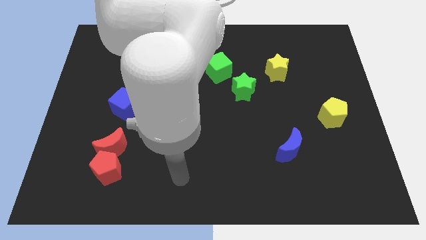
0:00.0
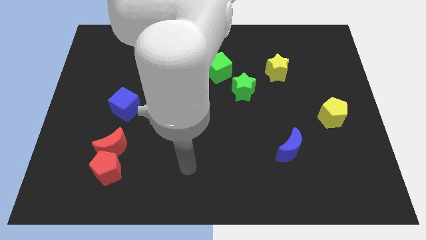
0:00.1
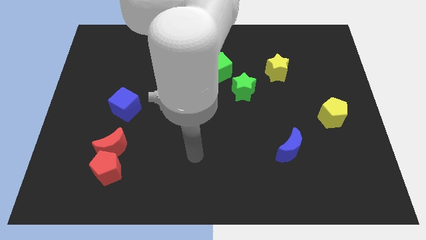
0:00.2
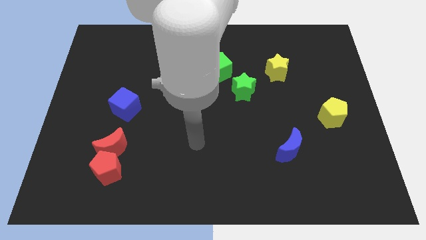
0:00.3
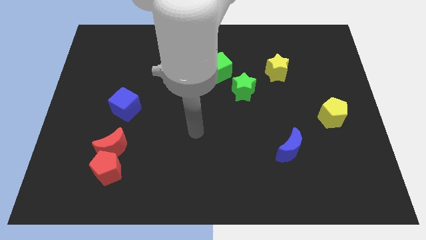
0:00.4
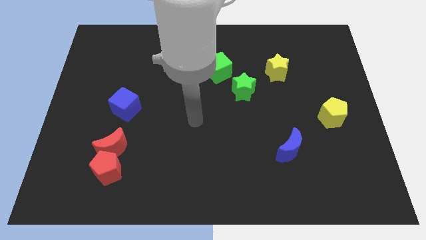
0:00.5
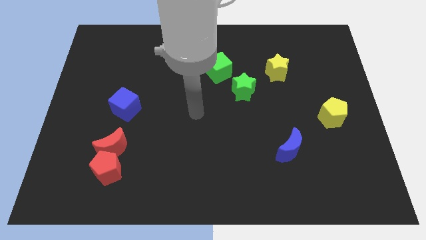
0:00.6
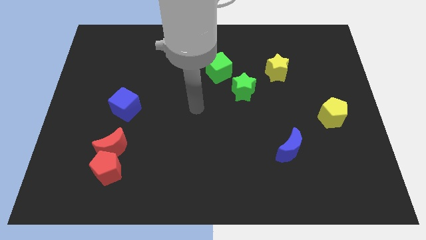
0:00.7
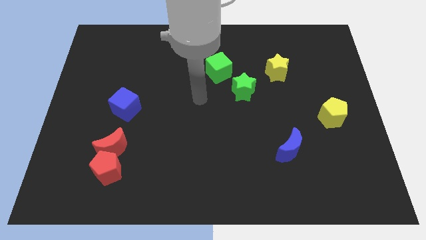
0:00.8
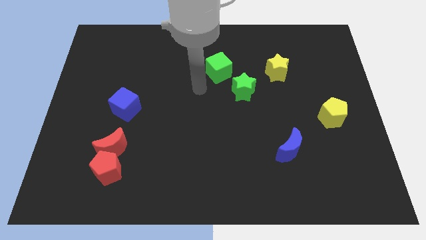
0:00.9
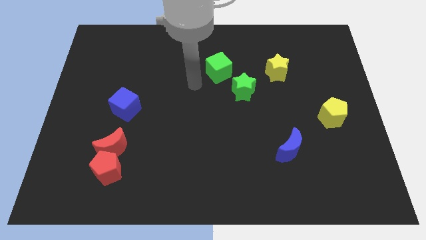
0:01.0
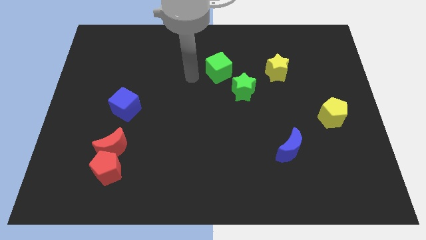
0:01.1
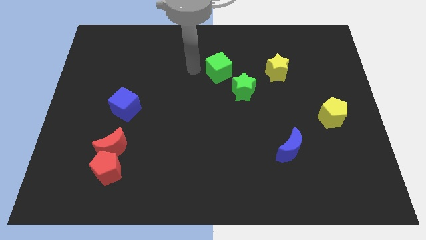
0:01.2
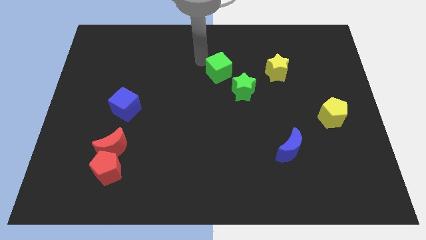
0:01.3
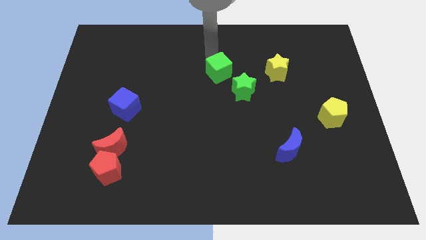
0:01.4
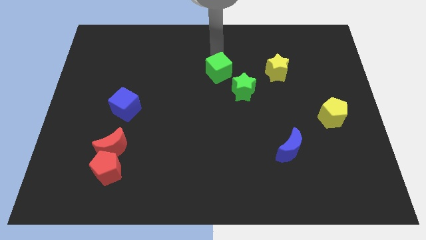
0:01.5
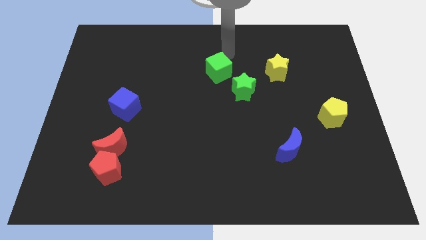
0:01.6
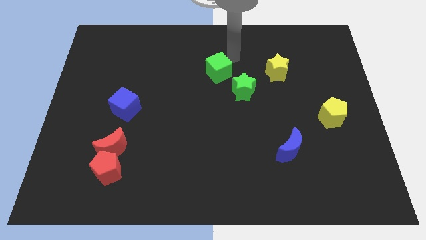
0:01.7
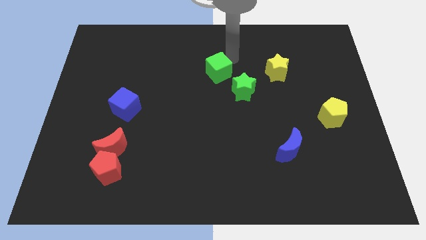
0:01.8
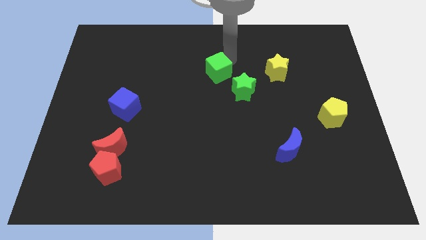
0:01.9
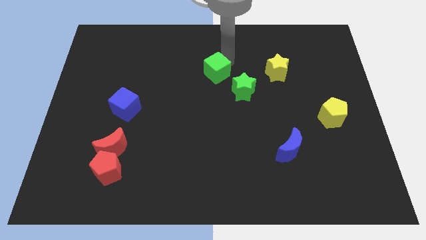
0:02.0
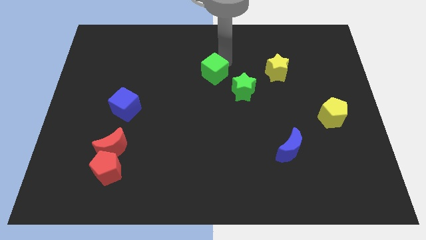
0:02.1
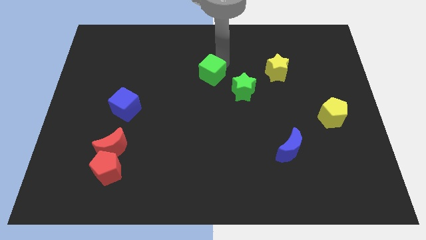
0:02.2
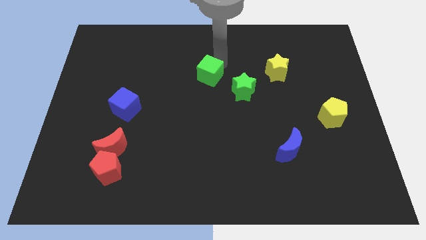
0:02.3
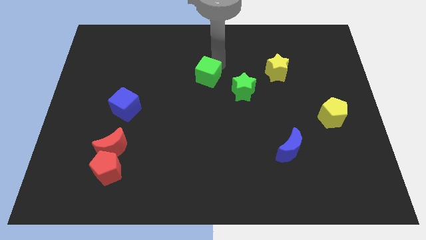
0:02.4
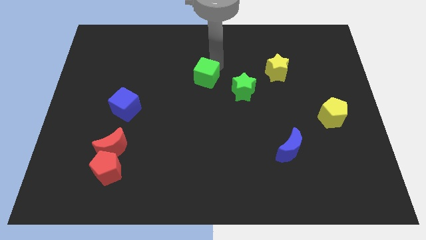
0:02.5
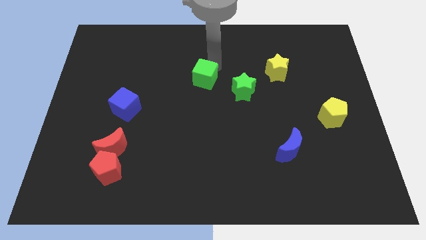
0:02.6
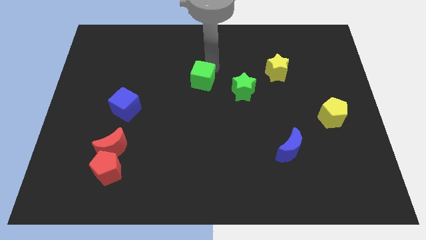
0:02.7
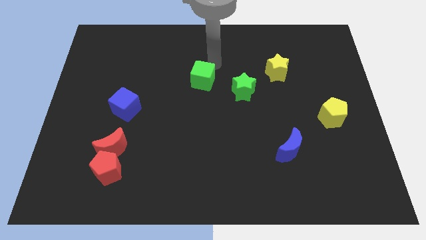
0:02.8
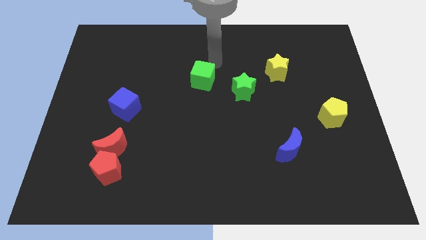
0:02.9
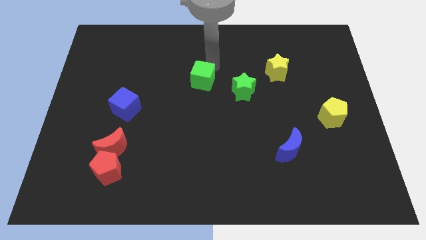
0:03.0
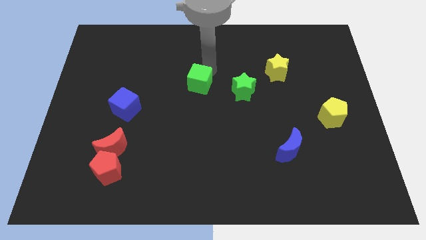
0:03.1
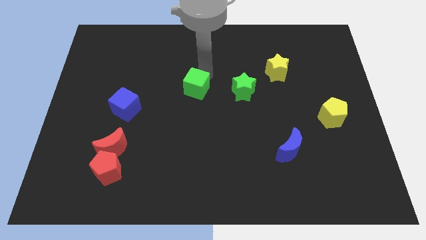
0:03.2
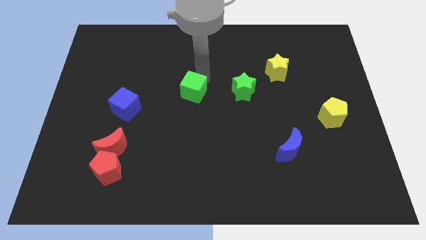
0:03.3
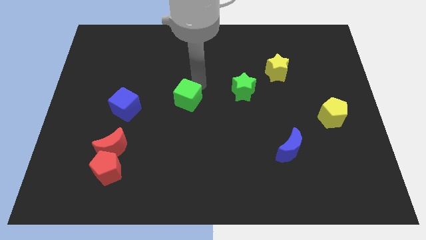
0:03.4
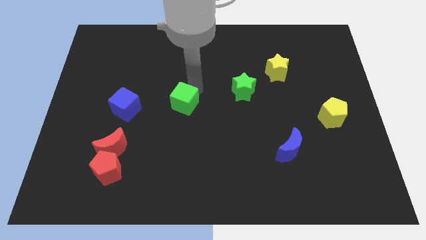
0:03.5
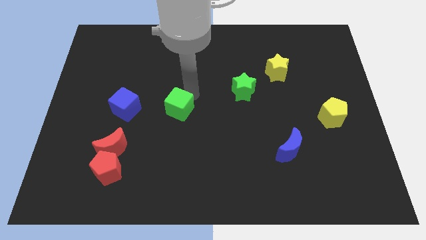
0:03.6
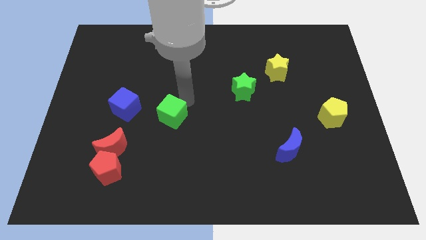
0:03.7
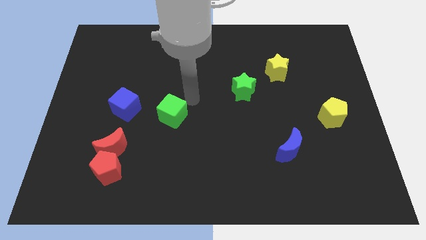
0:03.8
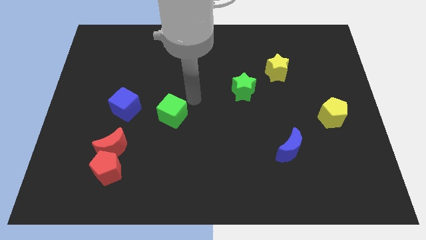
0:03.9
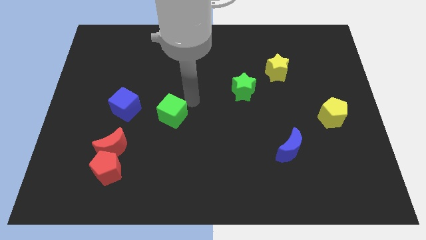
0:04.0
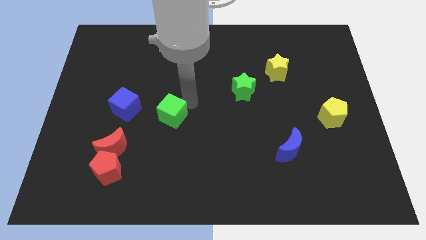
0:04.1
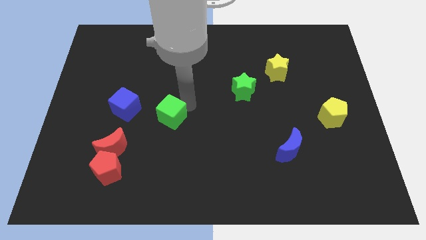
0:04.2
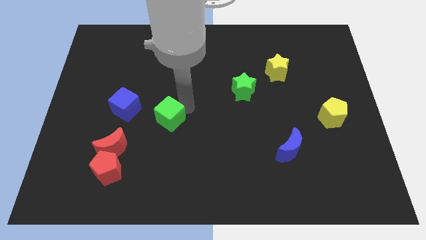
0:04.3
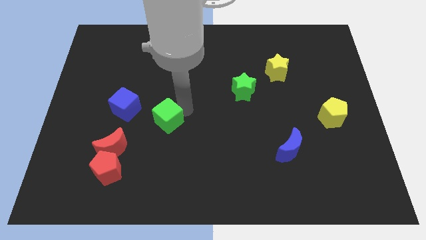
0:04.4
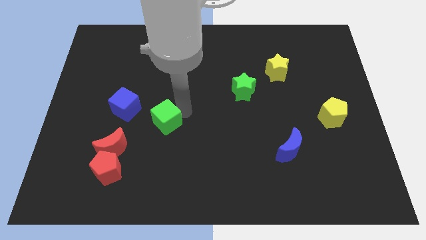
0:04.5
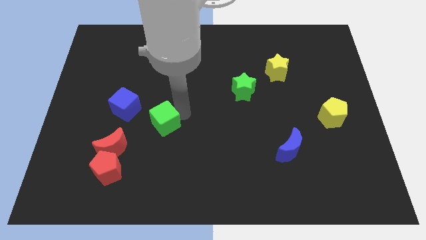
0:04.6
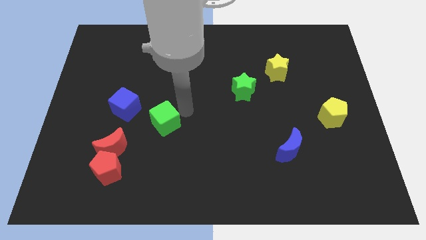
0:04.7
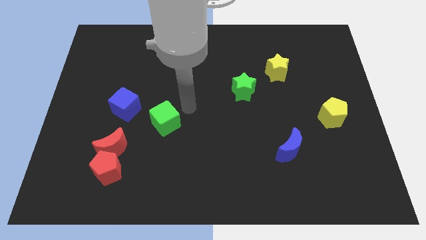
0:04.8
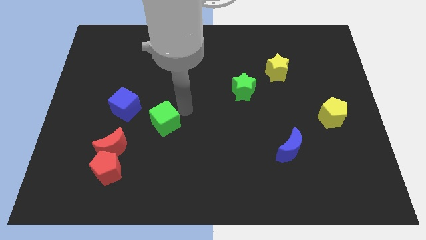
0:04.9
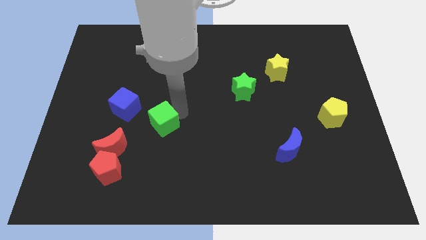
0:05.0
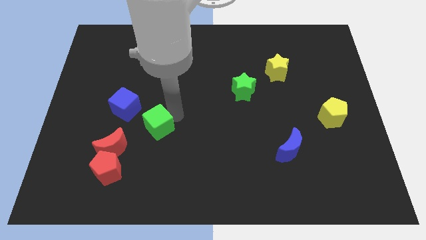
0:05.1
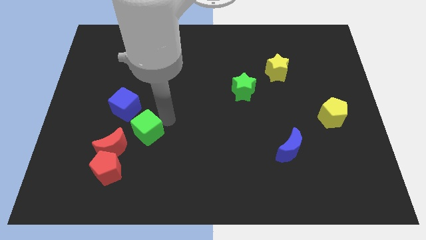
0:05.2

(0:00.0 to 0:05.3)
push the green cube to the top right side of the red pentagon

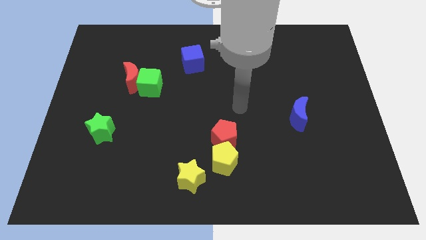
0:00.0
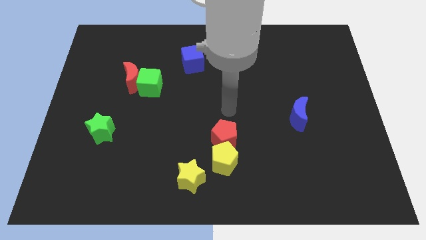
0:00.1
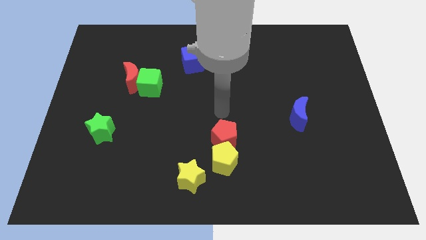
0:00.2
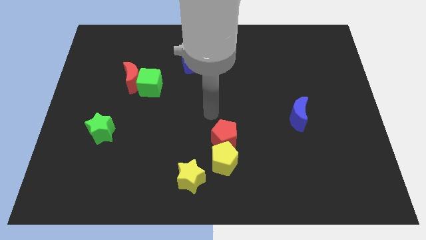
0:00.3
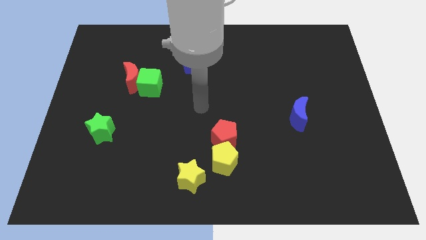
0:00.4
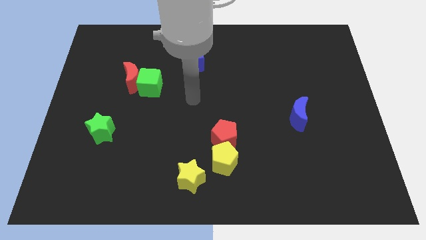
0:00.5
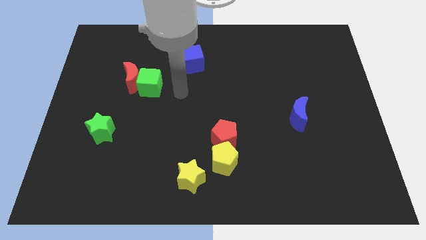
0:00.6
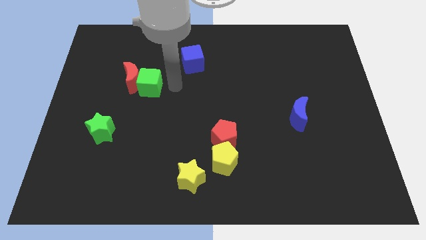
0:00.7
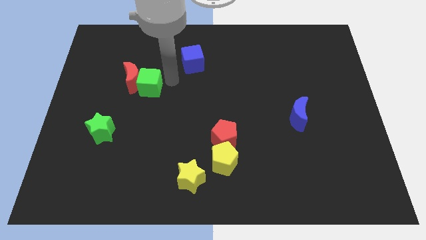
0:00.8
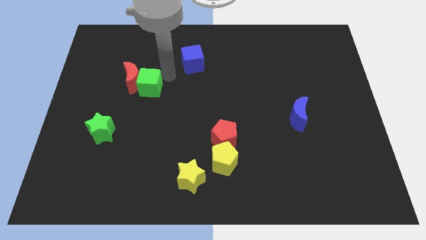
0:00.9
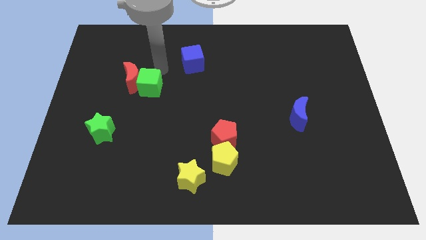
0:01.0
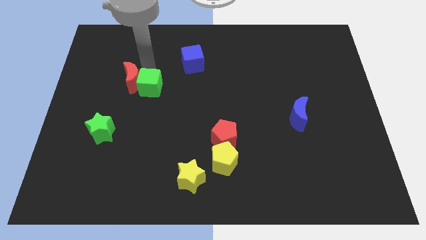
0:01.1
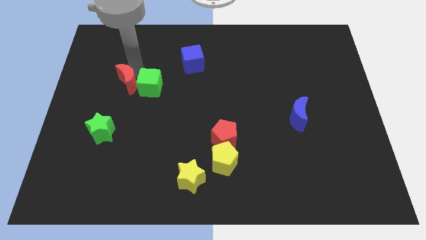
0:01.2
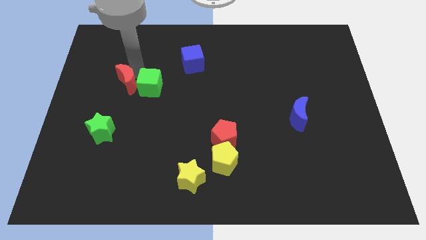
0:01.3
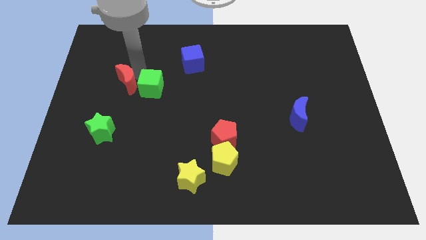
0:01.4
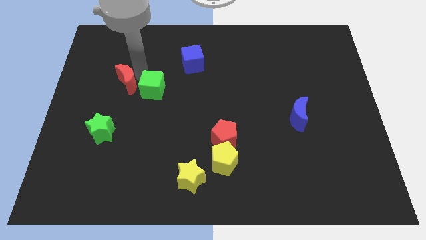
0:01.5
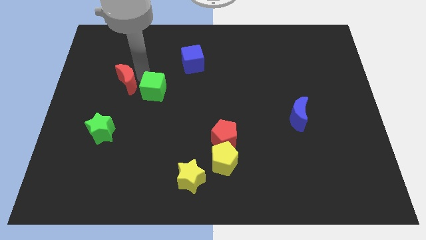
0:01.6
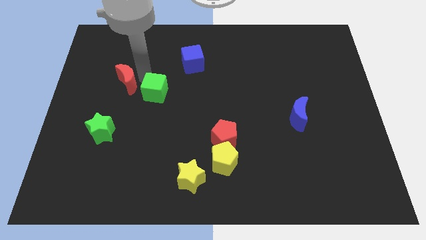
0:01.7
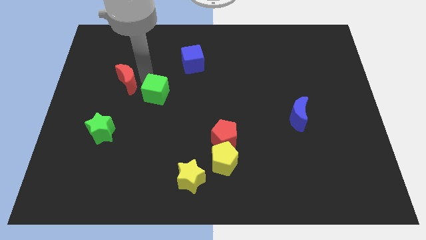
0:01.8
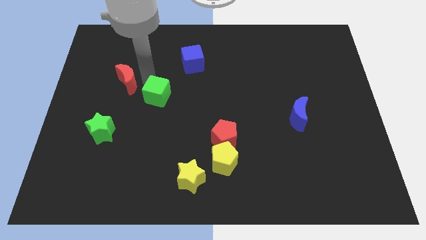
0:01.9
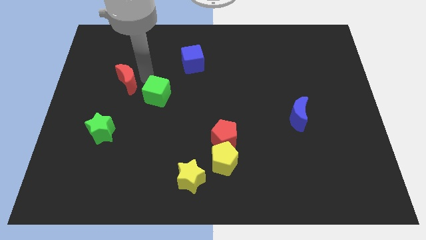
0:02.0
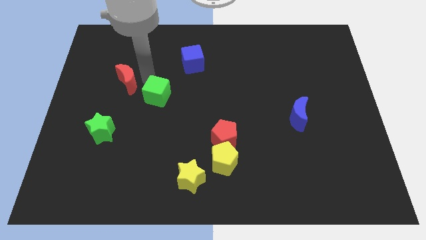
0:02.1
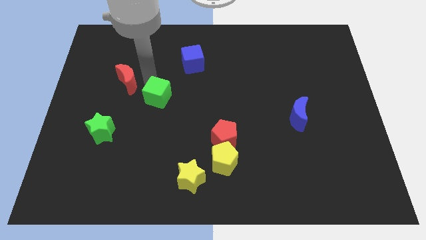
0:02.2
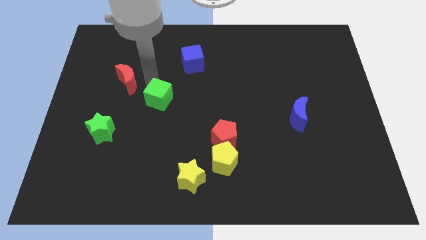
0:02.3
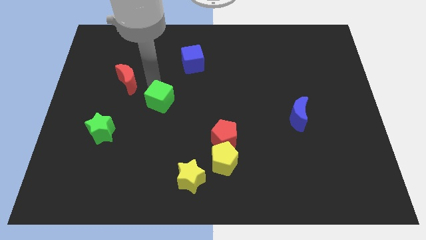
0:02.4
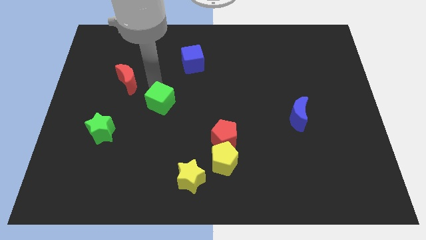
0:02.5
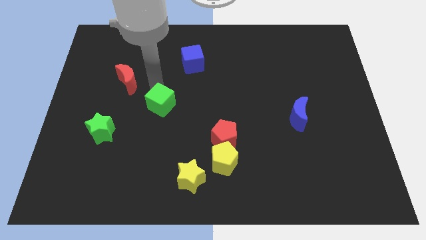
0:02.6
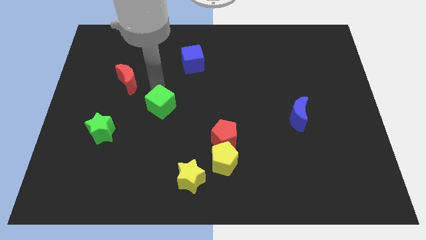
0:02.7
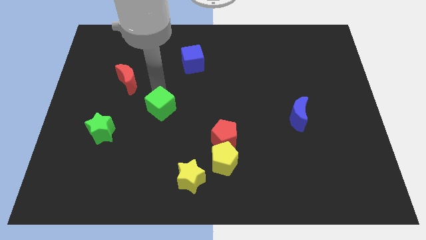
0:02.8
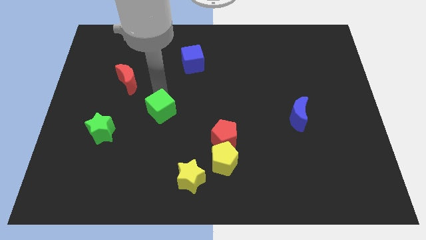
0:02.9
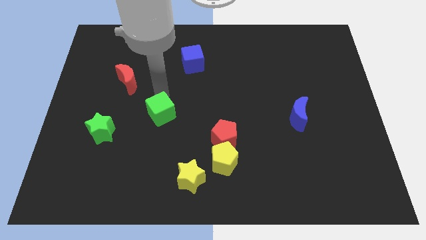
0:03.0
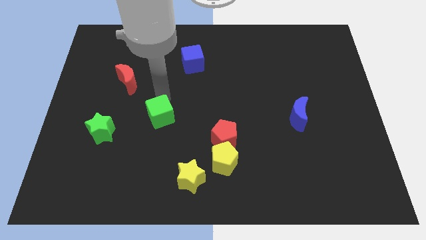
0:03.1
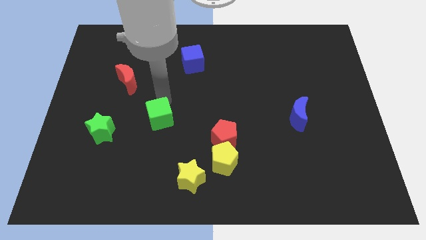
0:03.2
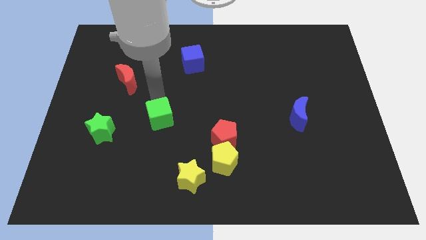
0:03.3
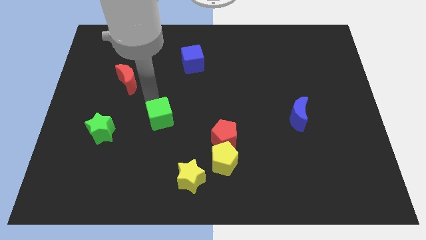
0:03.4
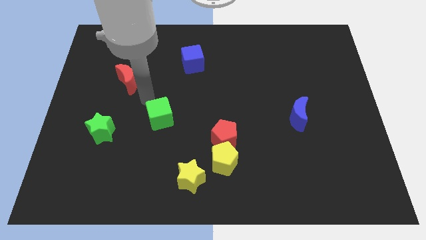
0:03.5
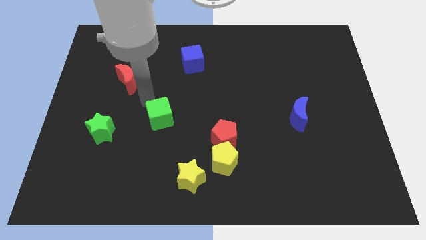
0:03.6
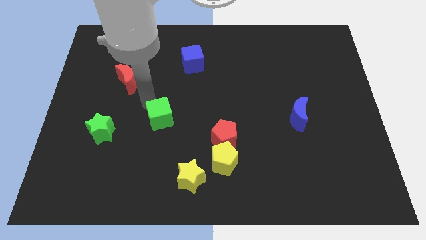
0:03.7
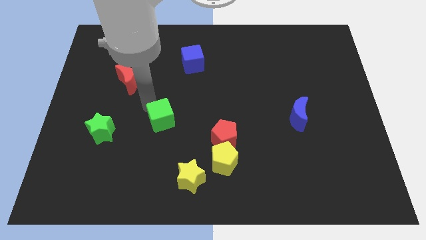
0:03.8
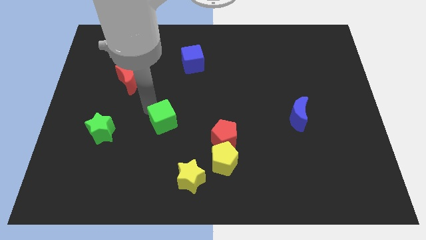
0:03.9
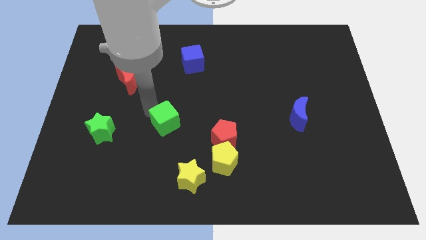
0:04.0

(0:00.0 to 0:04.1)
move the green cube to the left side of the red pentagon
